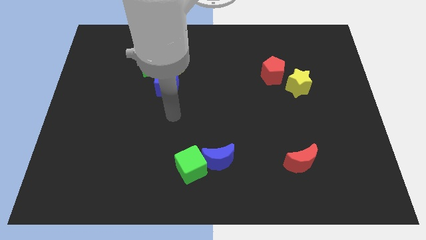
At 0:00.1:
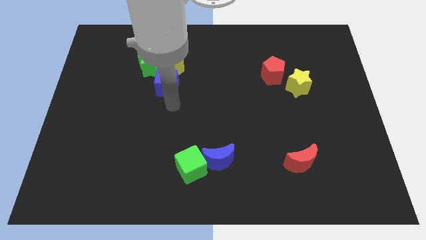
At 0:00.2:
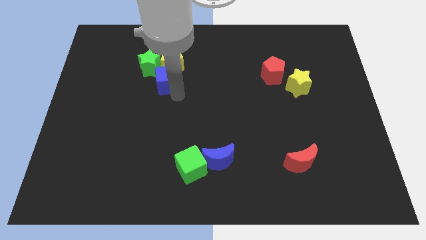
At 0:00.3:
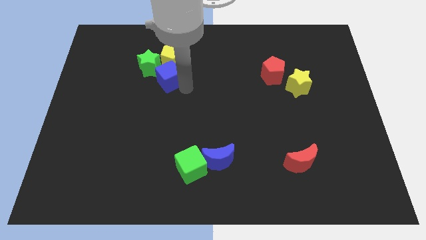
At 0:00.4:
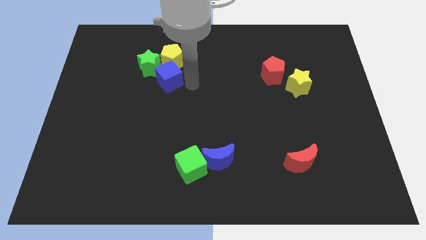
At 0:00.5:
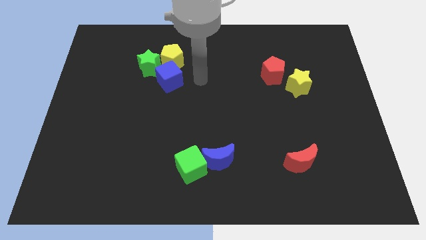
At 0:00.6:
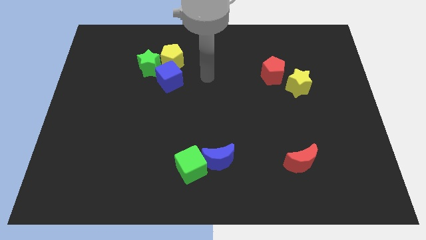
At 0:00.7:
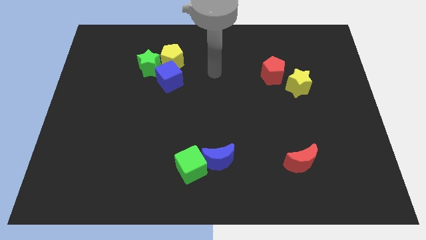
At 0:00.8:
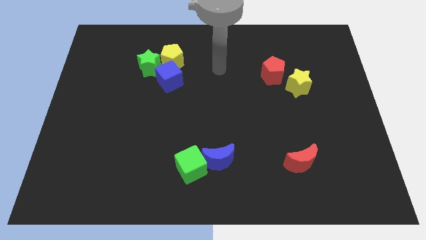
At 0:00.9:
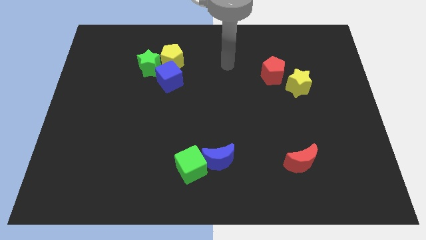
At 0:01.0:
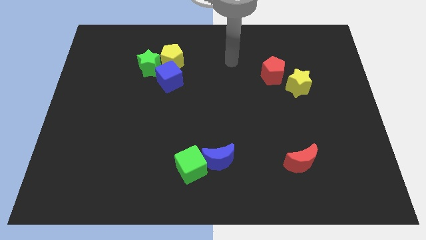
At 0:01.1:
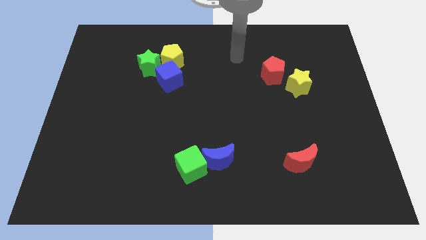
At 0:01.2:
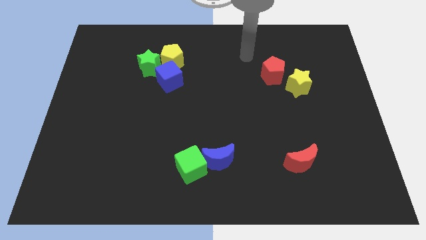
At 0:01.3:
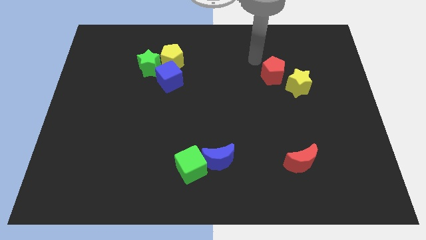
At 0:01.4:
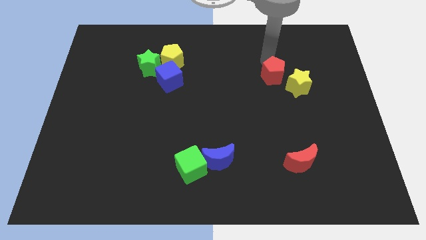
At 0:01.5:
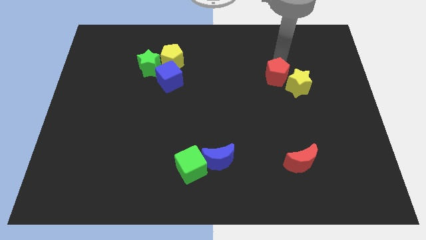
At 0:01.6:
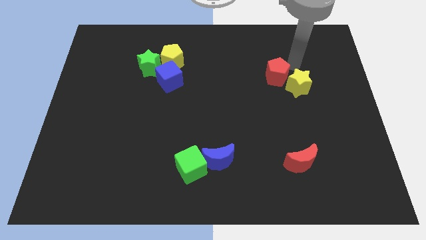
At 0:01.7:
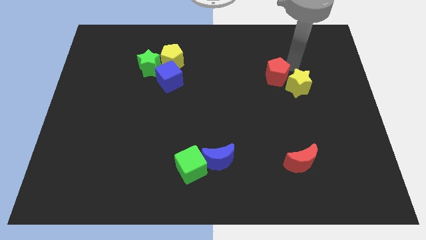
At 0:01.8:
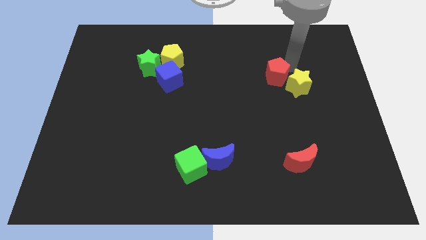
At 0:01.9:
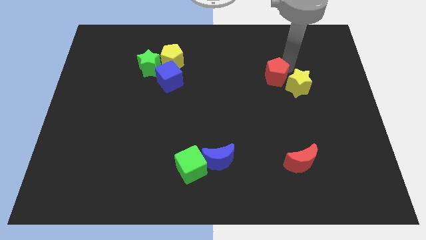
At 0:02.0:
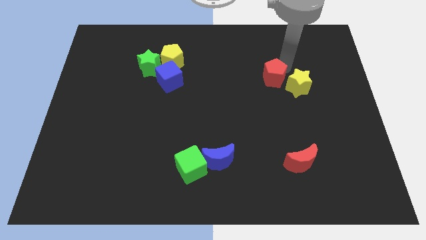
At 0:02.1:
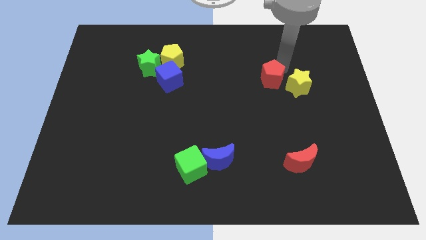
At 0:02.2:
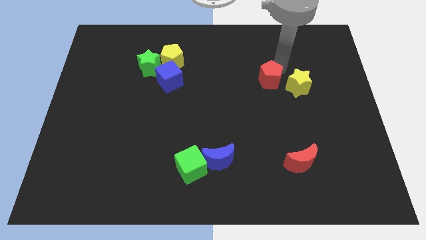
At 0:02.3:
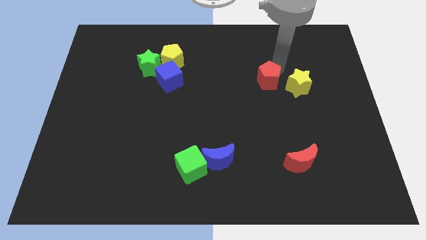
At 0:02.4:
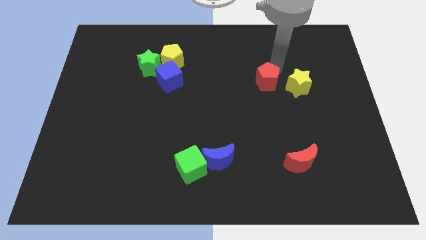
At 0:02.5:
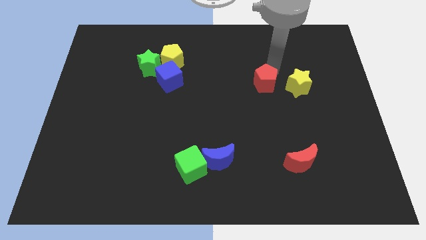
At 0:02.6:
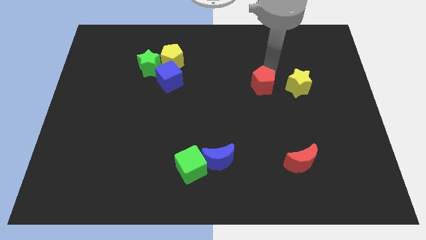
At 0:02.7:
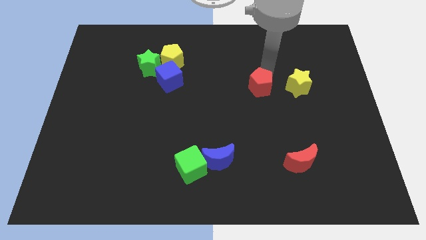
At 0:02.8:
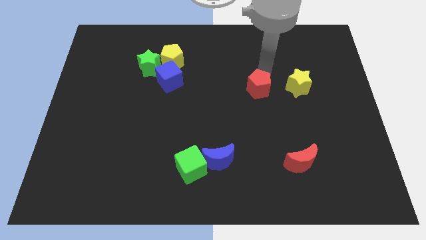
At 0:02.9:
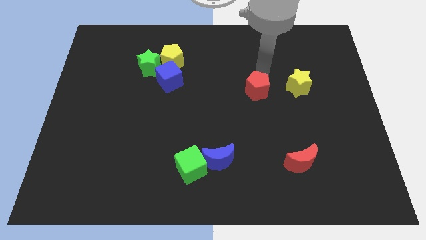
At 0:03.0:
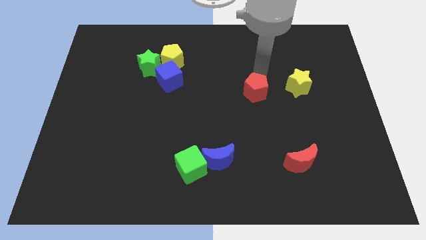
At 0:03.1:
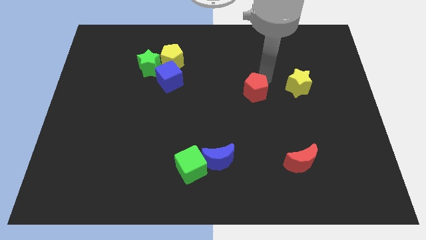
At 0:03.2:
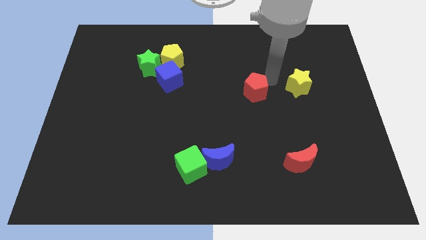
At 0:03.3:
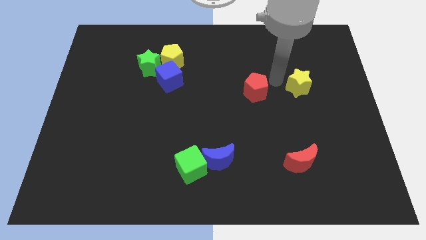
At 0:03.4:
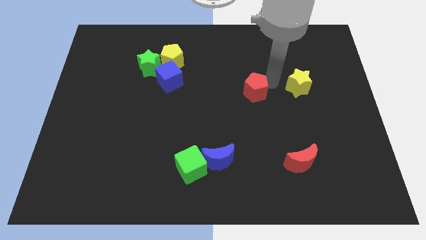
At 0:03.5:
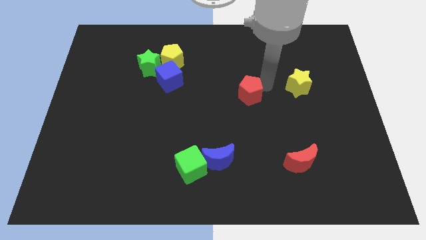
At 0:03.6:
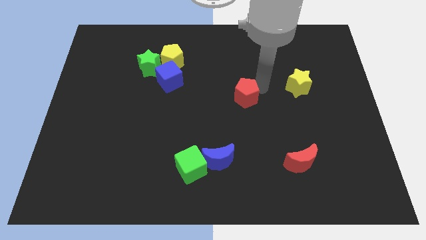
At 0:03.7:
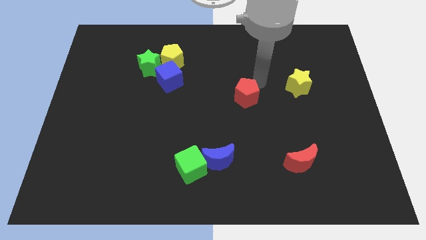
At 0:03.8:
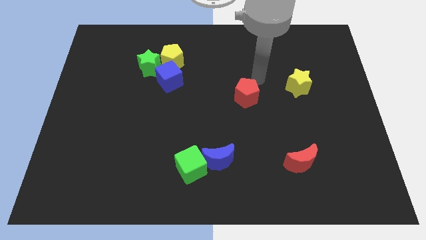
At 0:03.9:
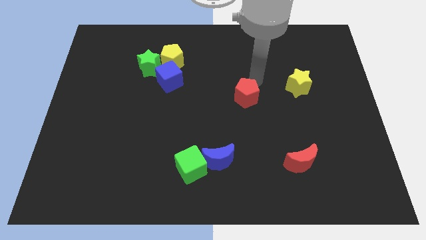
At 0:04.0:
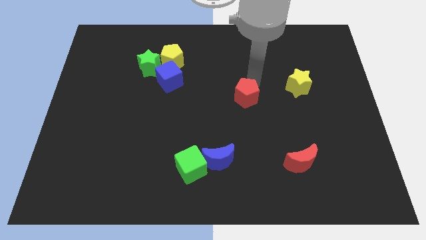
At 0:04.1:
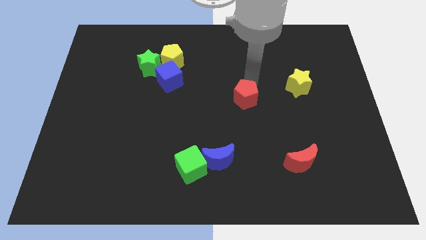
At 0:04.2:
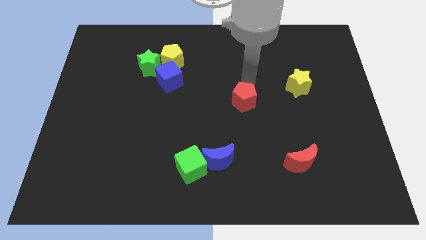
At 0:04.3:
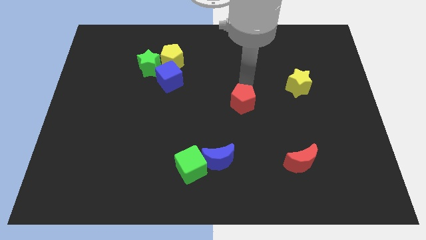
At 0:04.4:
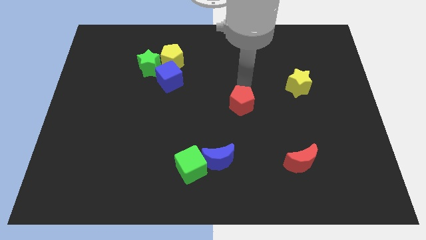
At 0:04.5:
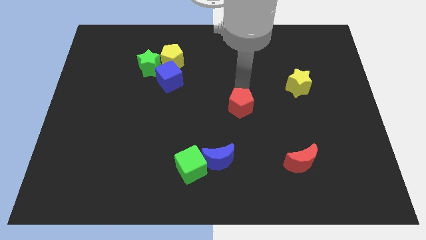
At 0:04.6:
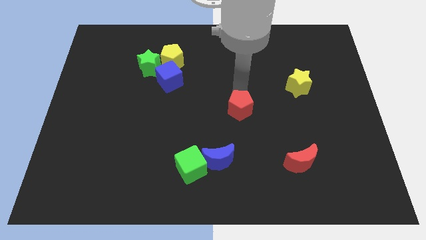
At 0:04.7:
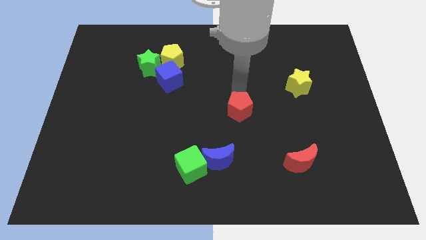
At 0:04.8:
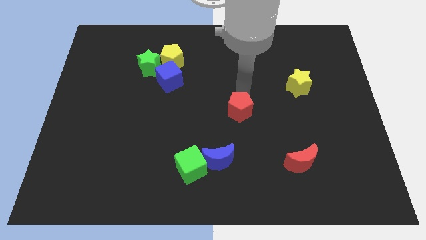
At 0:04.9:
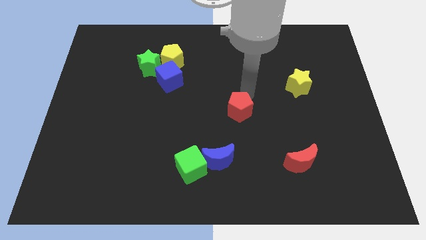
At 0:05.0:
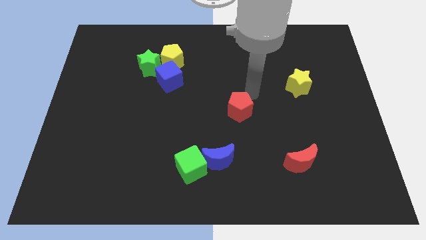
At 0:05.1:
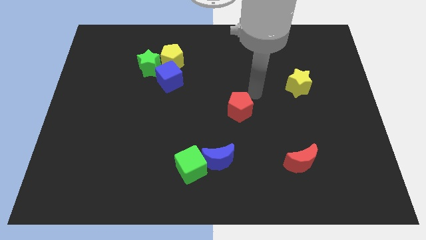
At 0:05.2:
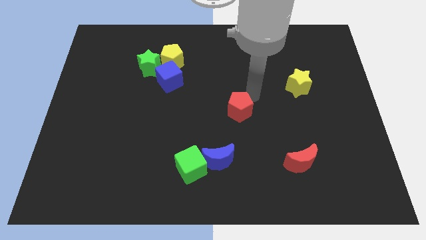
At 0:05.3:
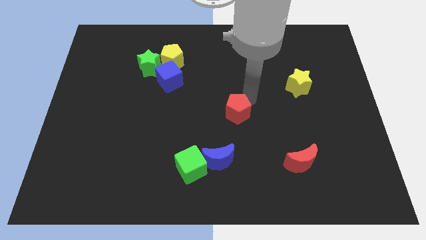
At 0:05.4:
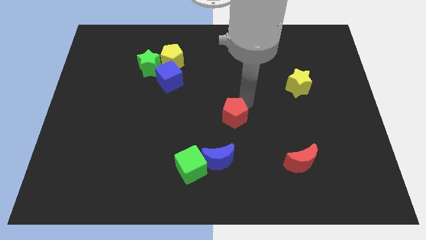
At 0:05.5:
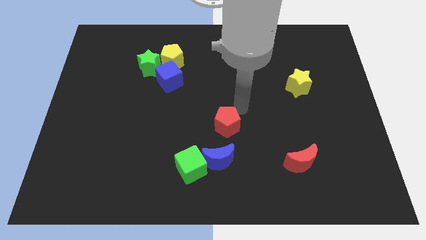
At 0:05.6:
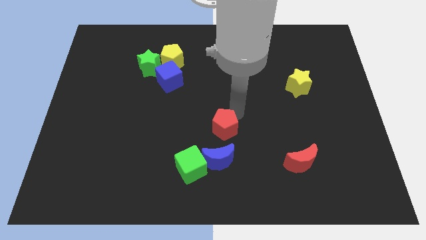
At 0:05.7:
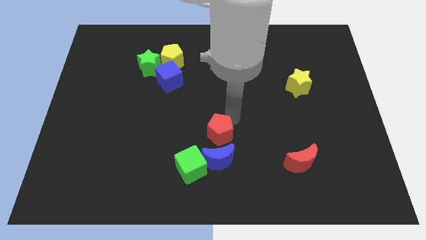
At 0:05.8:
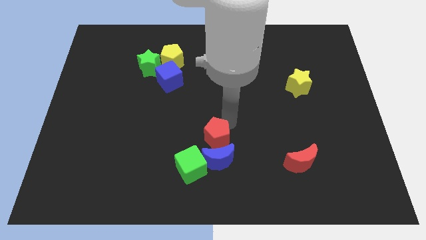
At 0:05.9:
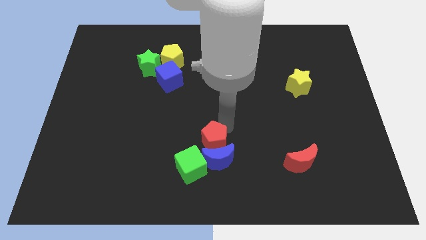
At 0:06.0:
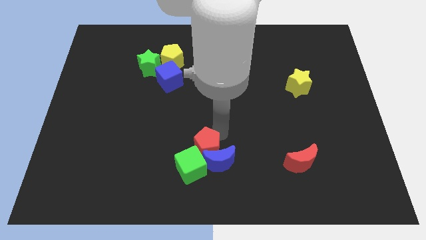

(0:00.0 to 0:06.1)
move the red pentagon towards the green cube

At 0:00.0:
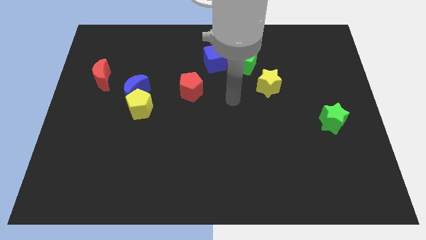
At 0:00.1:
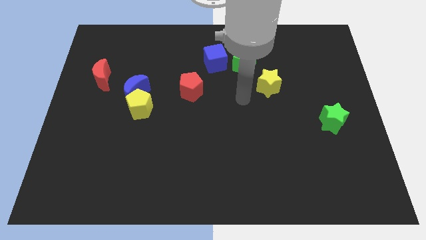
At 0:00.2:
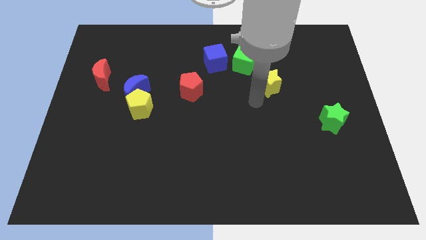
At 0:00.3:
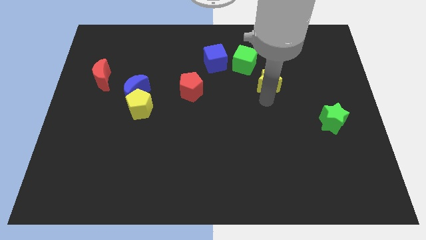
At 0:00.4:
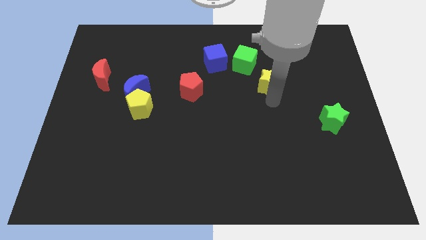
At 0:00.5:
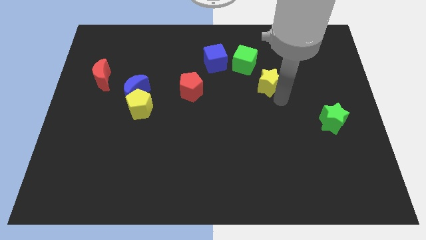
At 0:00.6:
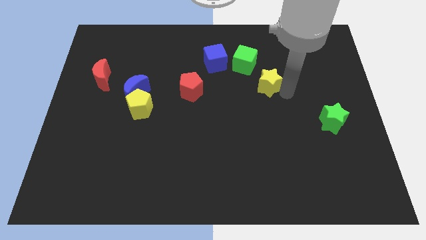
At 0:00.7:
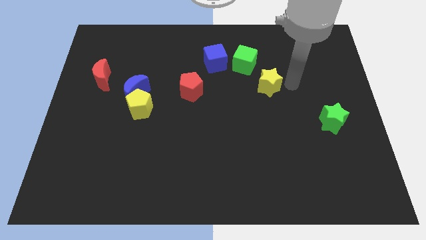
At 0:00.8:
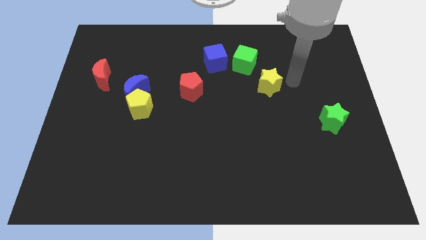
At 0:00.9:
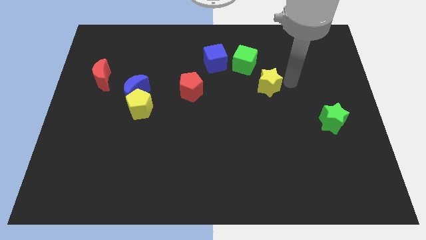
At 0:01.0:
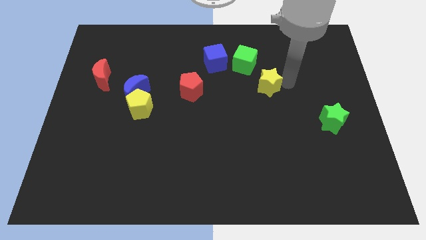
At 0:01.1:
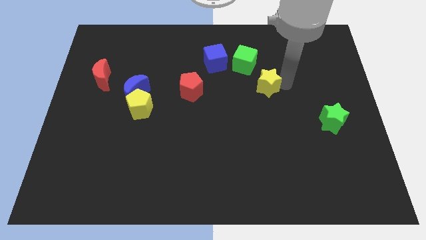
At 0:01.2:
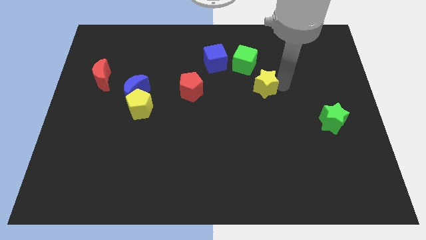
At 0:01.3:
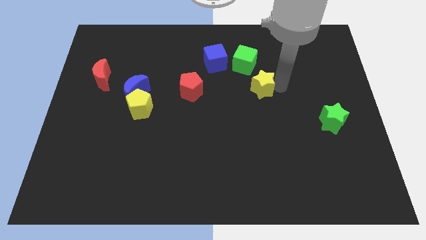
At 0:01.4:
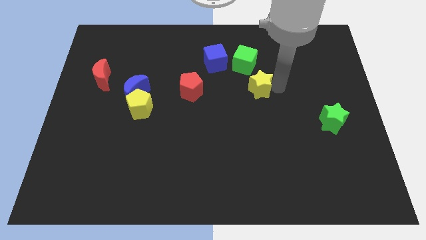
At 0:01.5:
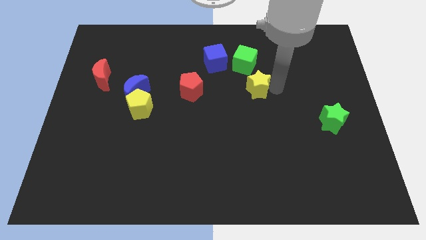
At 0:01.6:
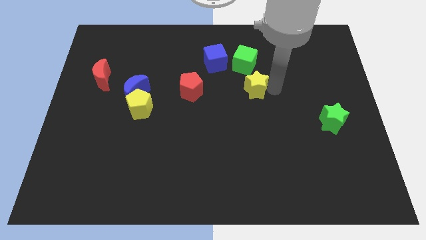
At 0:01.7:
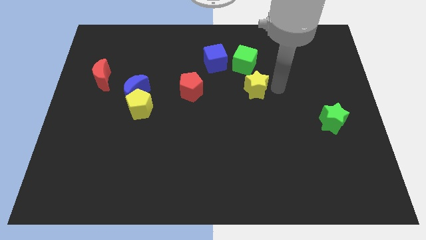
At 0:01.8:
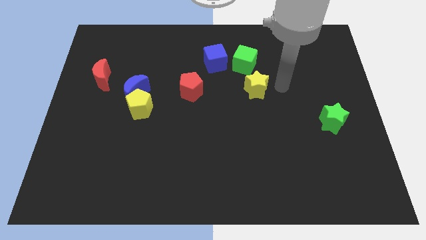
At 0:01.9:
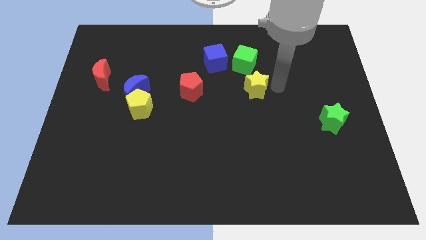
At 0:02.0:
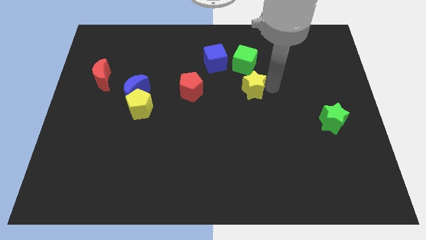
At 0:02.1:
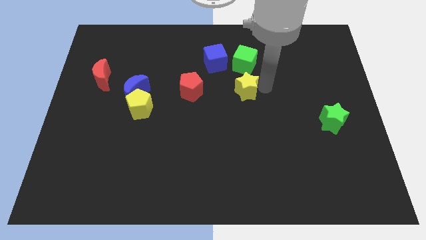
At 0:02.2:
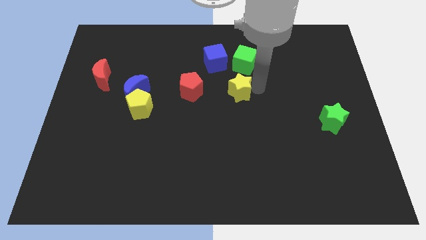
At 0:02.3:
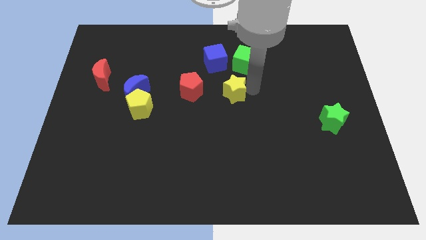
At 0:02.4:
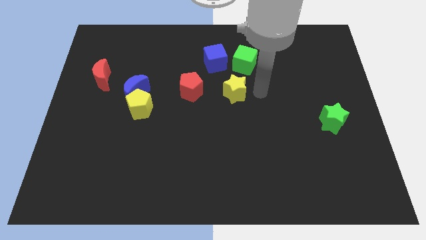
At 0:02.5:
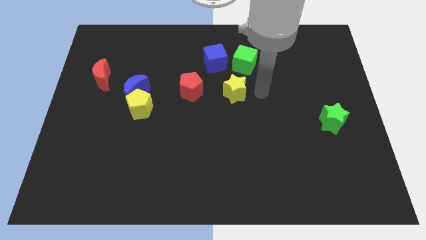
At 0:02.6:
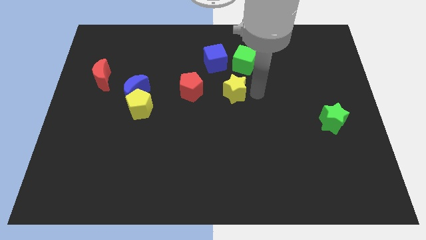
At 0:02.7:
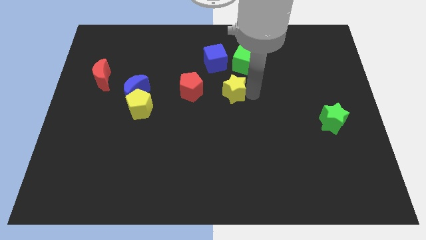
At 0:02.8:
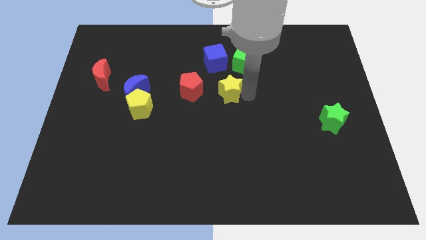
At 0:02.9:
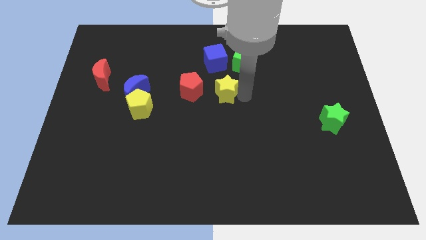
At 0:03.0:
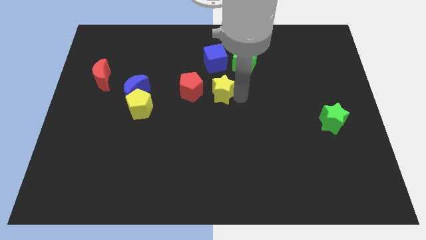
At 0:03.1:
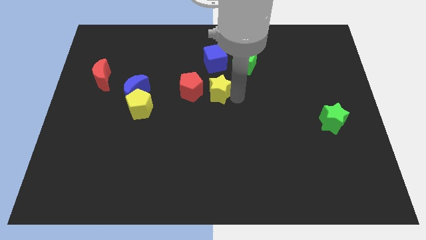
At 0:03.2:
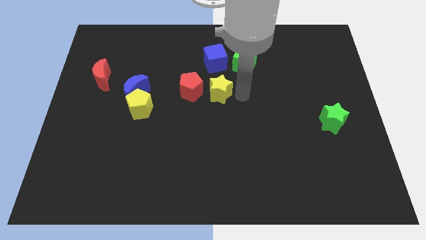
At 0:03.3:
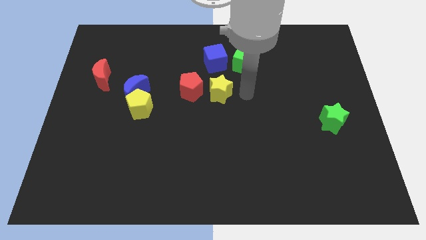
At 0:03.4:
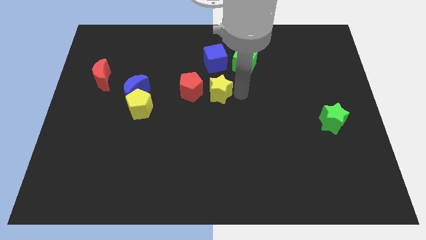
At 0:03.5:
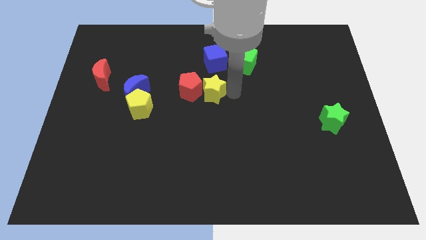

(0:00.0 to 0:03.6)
move the yellow star close to the red pentagon
